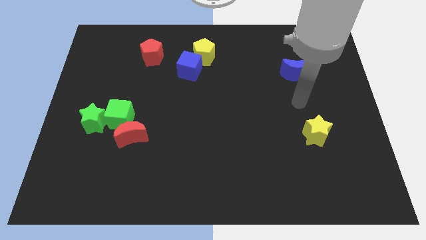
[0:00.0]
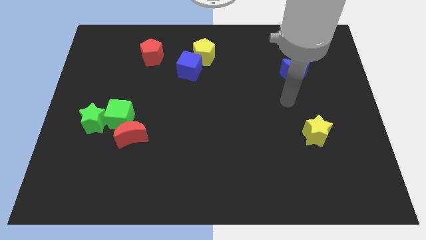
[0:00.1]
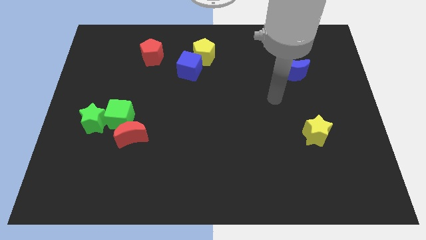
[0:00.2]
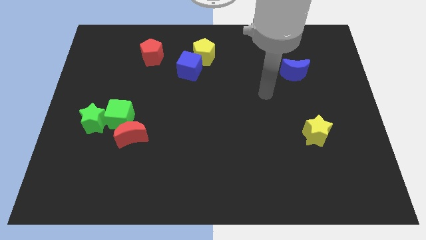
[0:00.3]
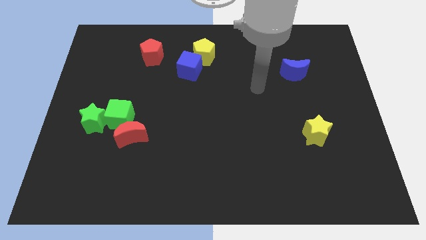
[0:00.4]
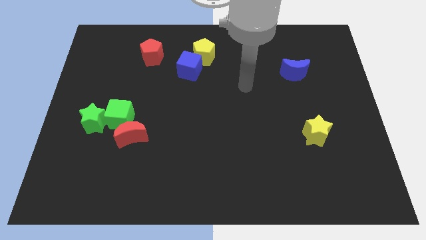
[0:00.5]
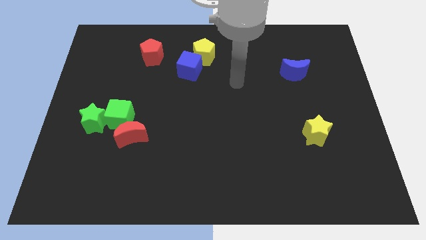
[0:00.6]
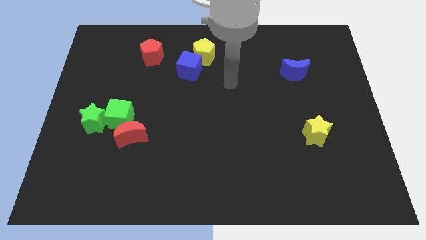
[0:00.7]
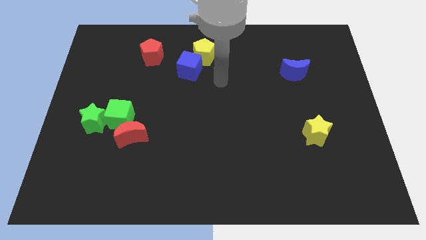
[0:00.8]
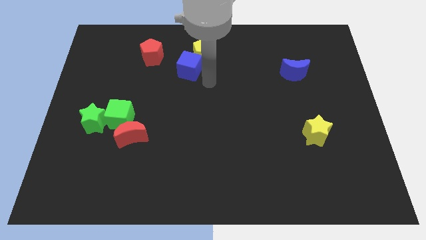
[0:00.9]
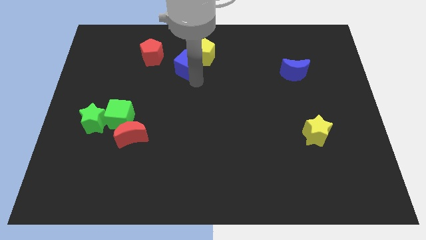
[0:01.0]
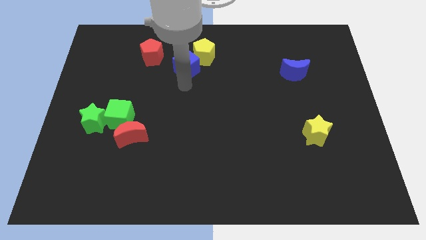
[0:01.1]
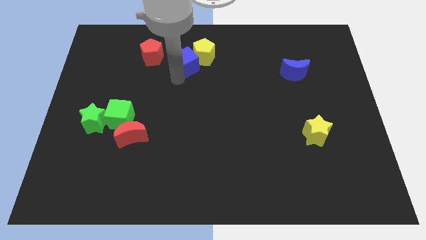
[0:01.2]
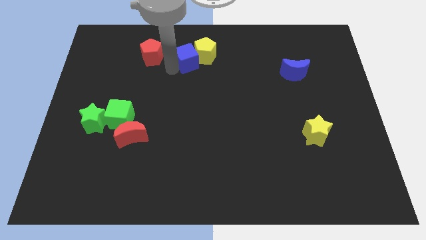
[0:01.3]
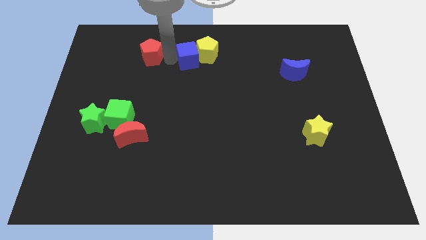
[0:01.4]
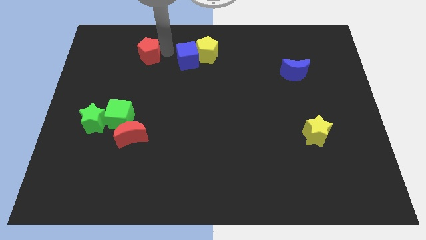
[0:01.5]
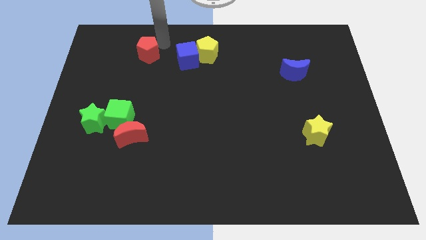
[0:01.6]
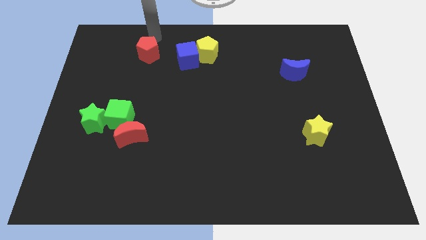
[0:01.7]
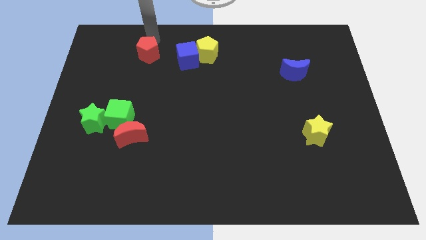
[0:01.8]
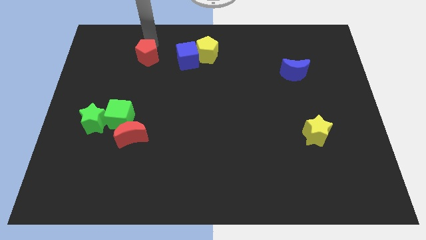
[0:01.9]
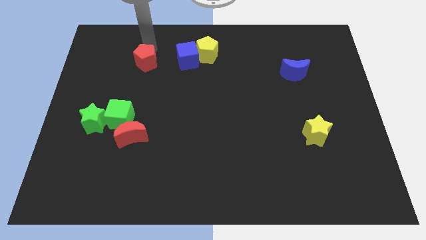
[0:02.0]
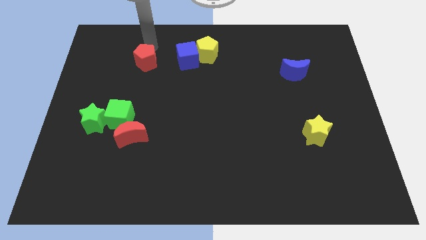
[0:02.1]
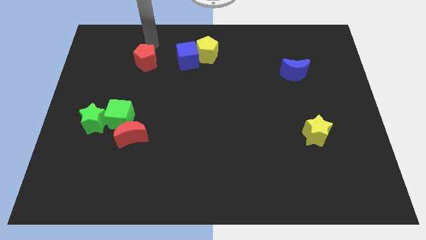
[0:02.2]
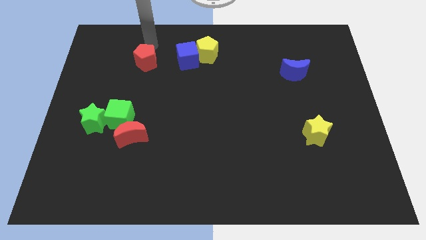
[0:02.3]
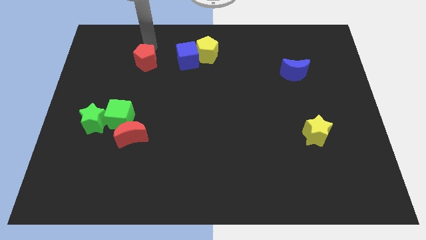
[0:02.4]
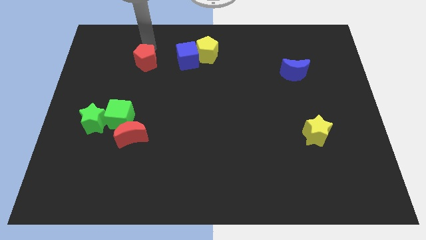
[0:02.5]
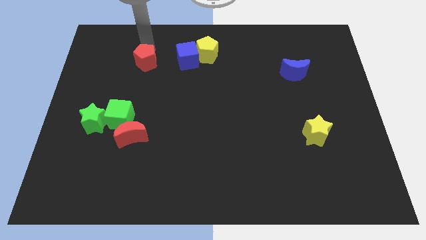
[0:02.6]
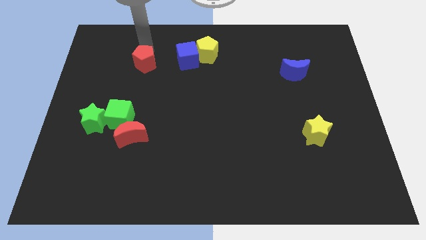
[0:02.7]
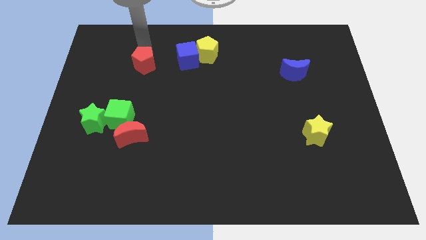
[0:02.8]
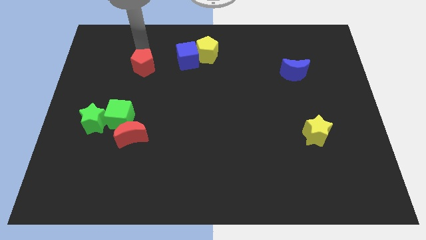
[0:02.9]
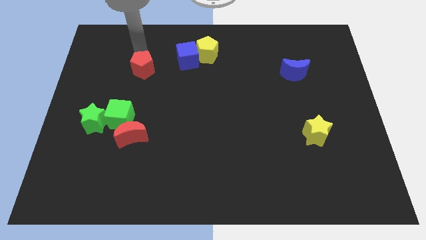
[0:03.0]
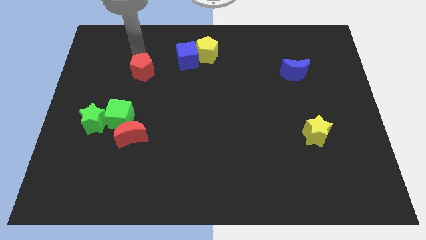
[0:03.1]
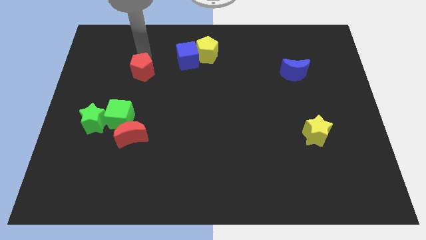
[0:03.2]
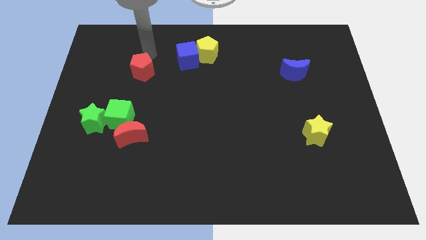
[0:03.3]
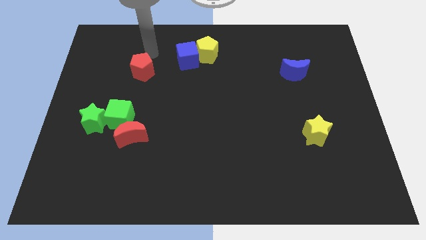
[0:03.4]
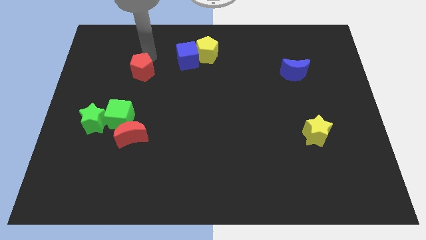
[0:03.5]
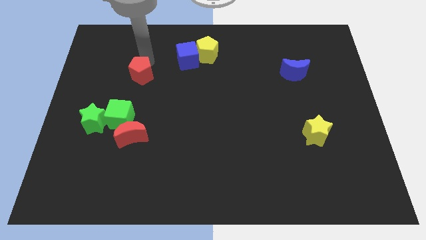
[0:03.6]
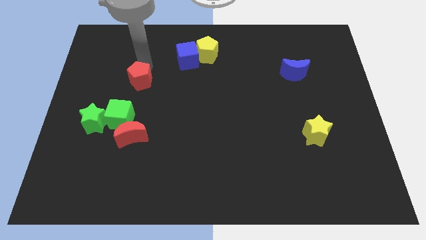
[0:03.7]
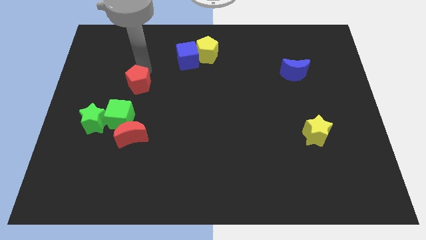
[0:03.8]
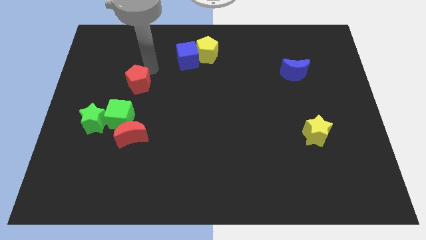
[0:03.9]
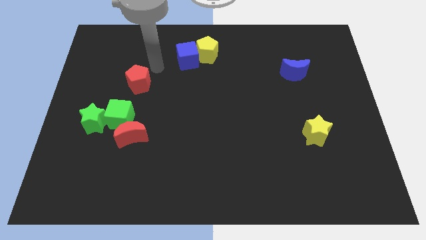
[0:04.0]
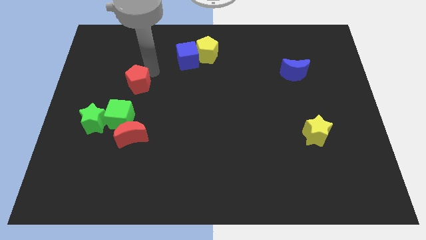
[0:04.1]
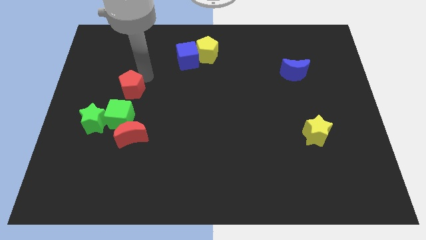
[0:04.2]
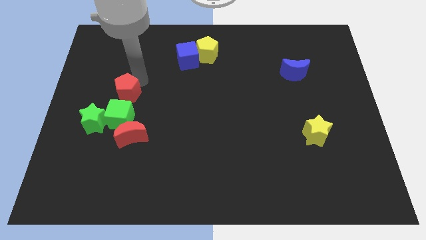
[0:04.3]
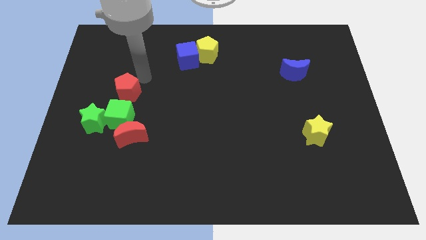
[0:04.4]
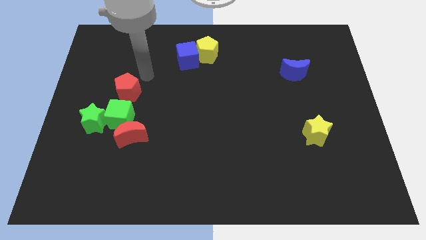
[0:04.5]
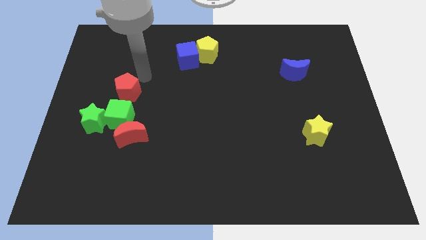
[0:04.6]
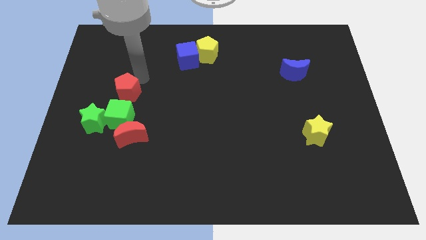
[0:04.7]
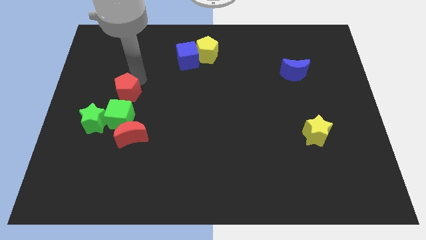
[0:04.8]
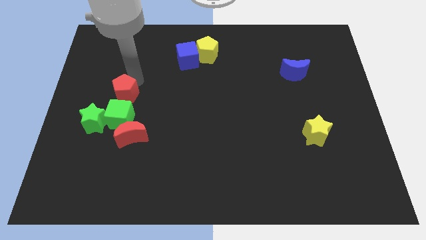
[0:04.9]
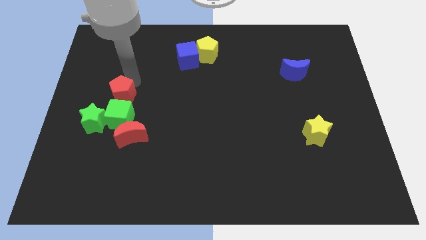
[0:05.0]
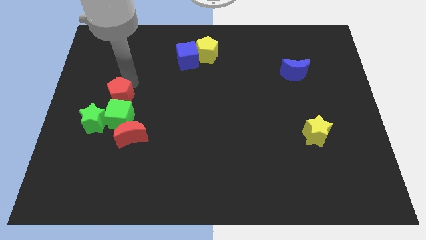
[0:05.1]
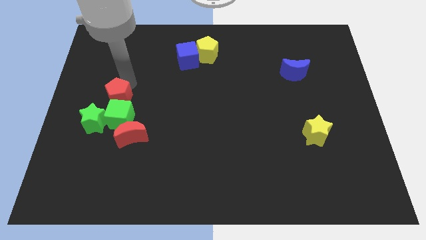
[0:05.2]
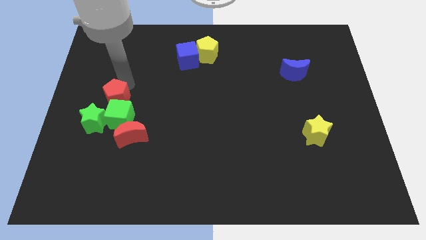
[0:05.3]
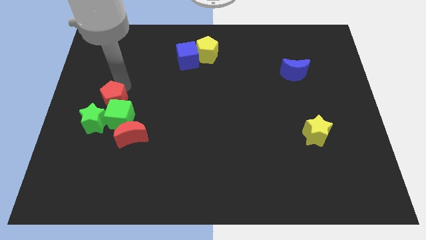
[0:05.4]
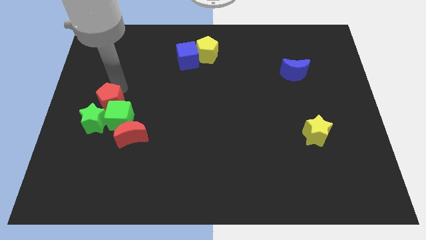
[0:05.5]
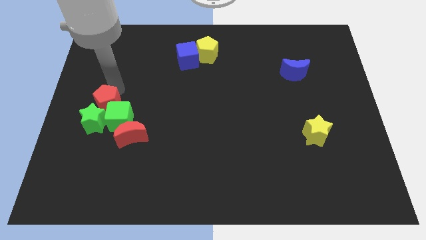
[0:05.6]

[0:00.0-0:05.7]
push the red pentagon next to the green star

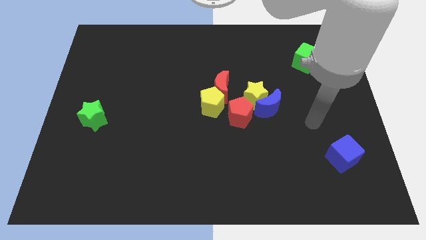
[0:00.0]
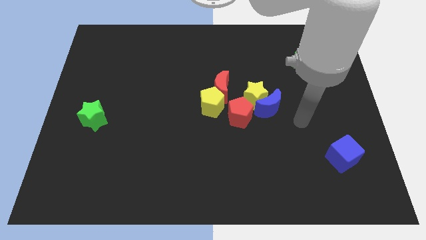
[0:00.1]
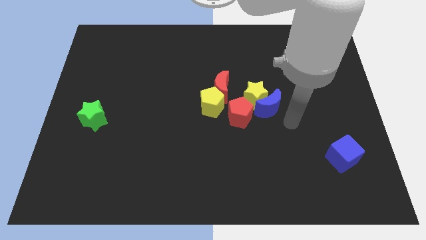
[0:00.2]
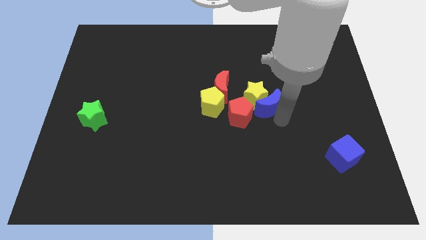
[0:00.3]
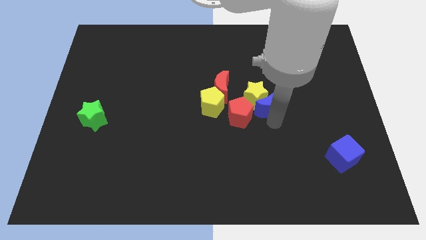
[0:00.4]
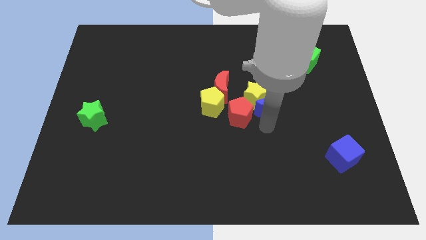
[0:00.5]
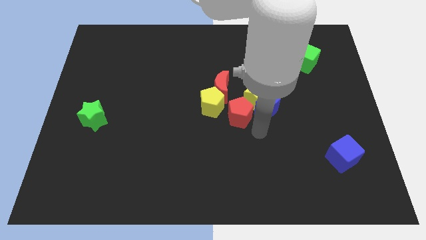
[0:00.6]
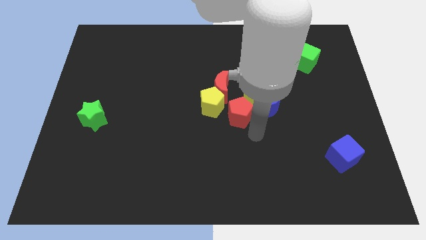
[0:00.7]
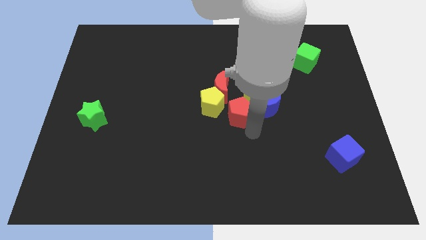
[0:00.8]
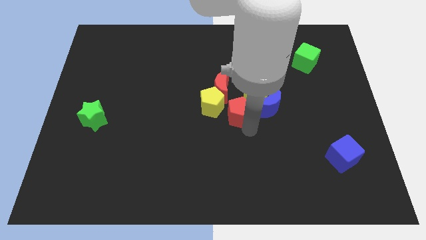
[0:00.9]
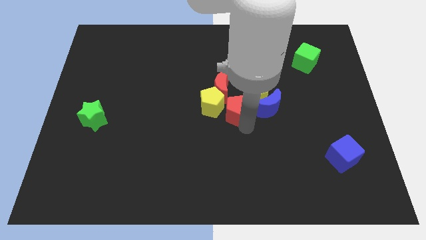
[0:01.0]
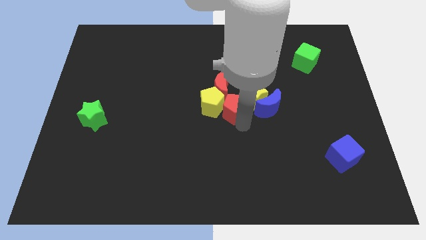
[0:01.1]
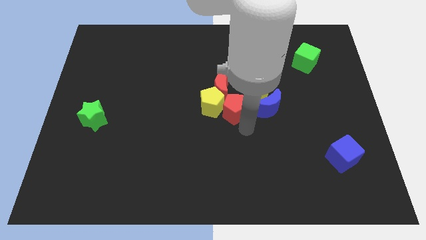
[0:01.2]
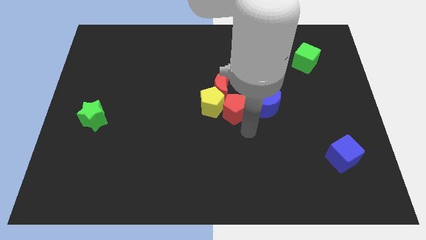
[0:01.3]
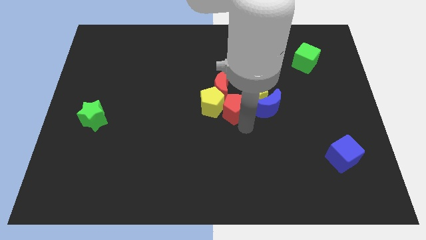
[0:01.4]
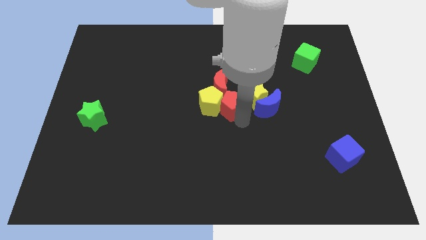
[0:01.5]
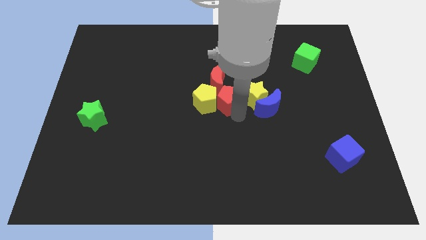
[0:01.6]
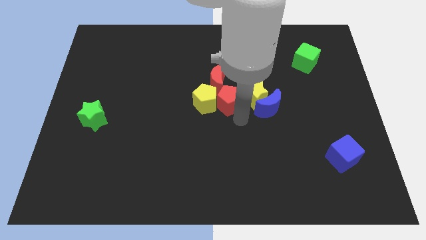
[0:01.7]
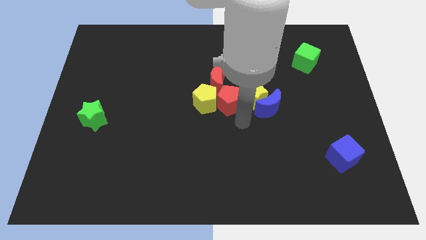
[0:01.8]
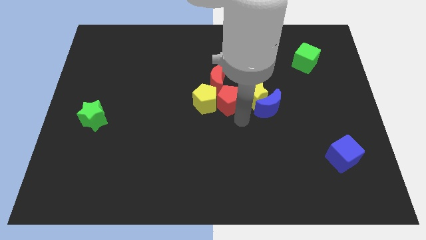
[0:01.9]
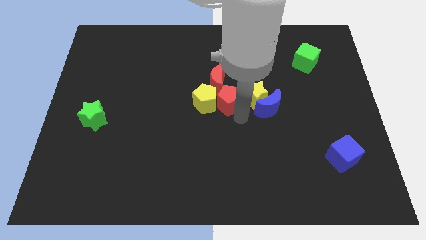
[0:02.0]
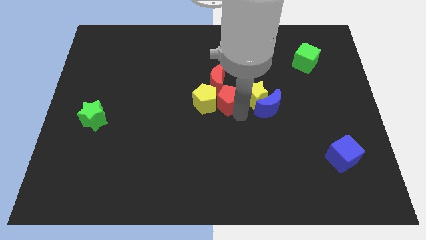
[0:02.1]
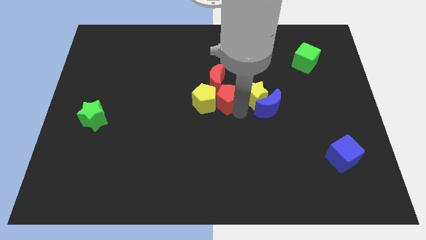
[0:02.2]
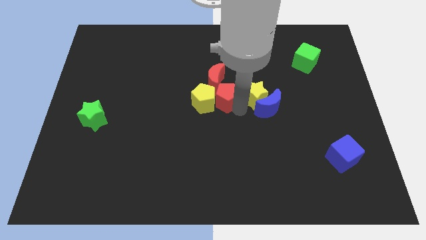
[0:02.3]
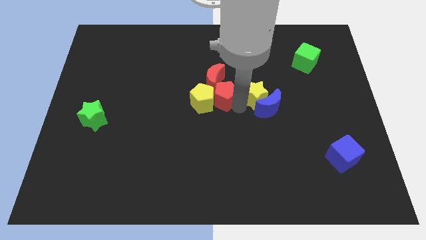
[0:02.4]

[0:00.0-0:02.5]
push the red pentagon towards the red moon
